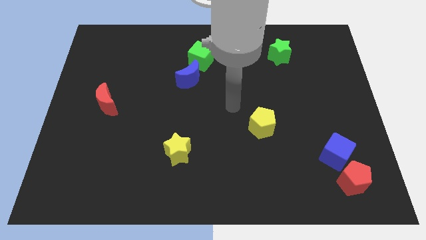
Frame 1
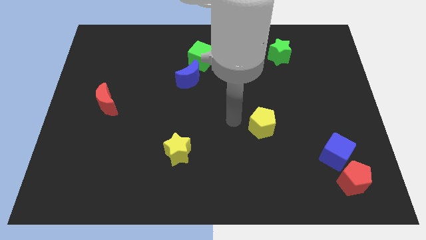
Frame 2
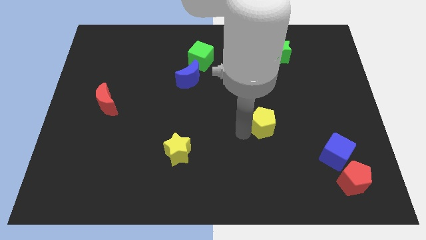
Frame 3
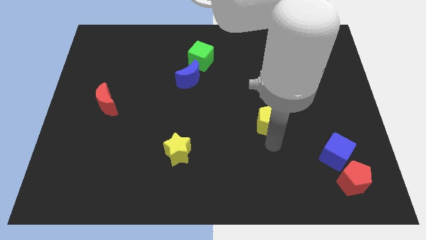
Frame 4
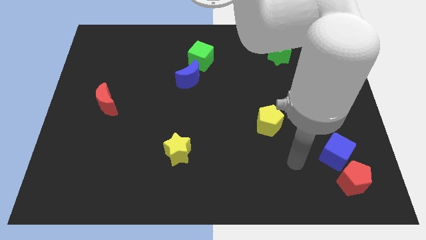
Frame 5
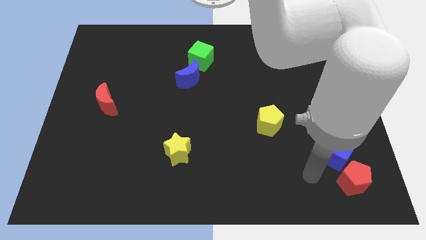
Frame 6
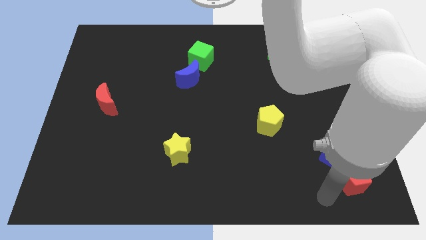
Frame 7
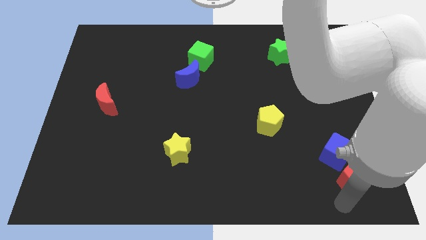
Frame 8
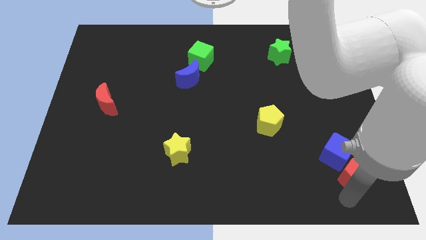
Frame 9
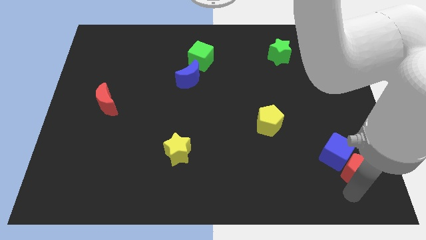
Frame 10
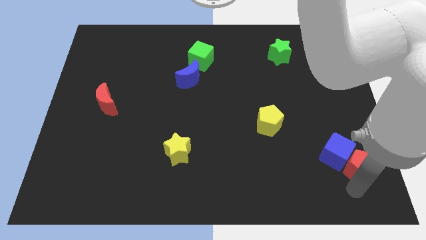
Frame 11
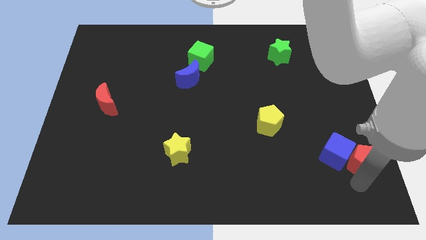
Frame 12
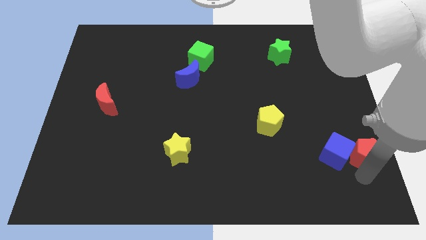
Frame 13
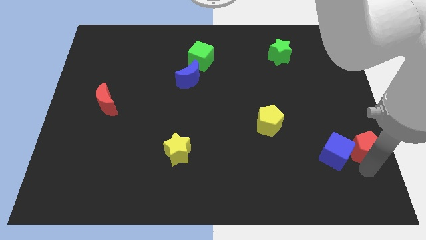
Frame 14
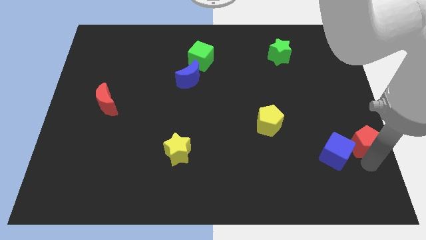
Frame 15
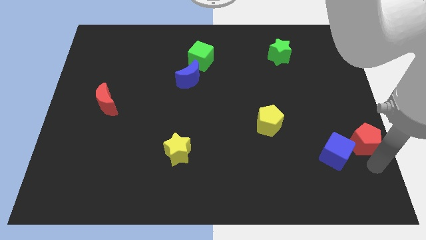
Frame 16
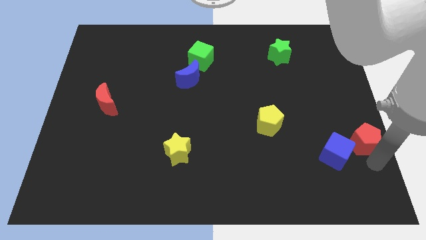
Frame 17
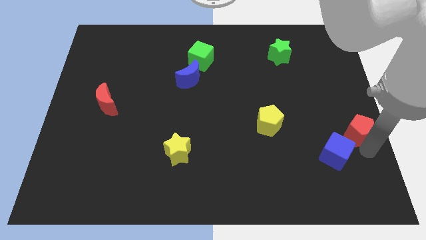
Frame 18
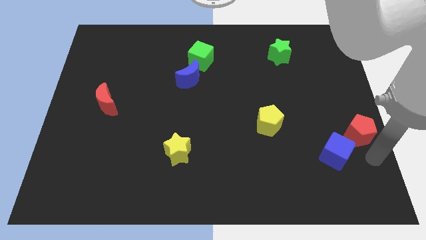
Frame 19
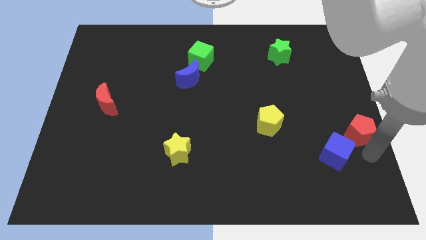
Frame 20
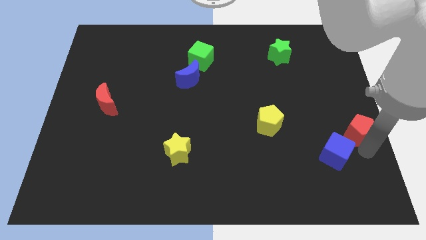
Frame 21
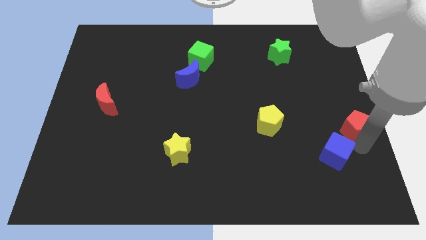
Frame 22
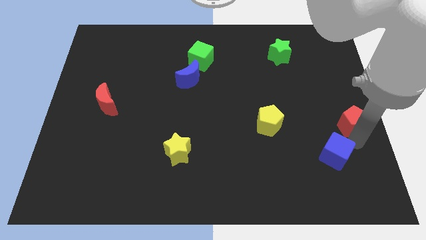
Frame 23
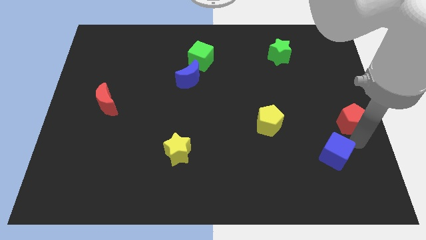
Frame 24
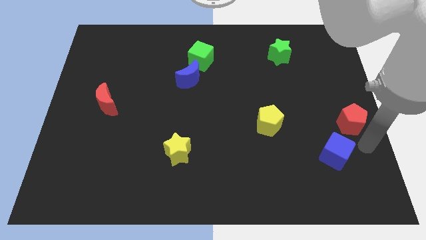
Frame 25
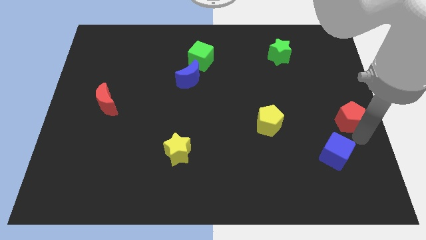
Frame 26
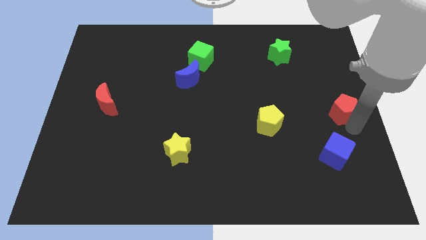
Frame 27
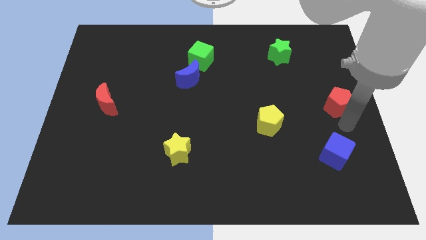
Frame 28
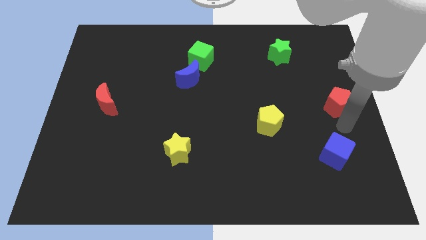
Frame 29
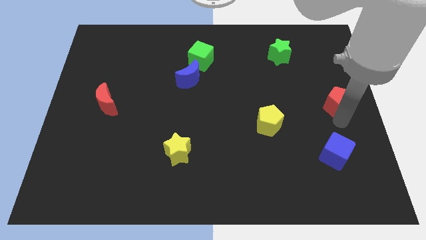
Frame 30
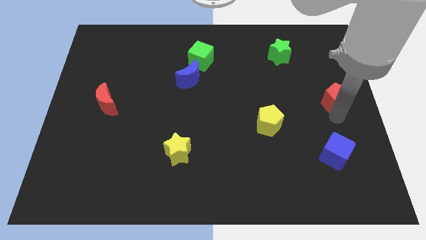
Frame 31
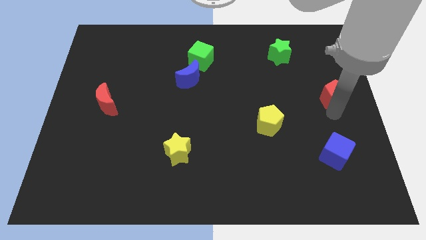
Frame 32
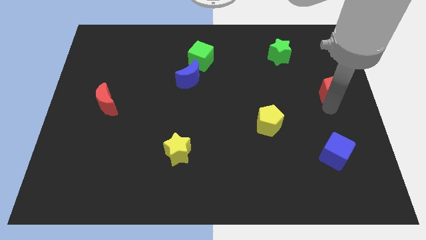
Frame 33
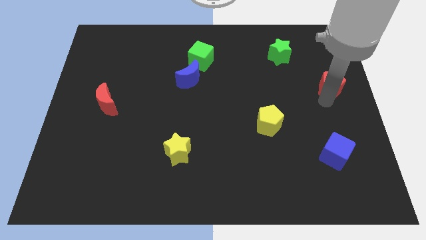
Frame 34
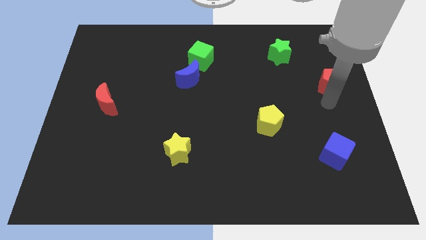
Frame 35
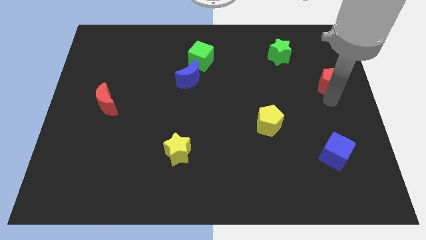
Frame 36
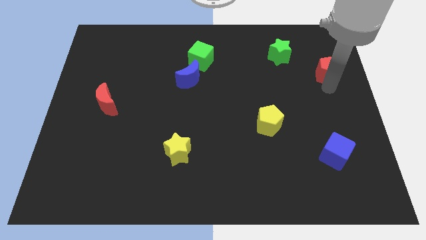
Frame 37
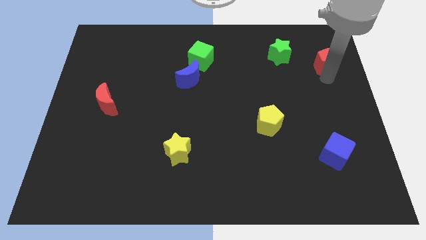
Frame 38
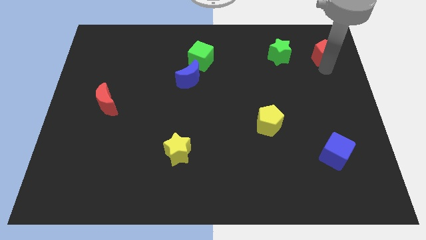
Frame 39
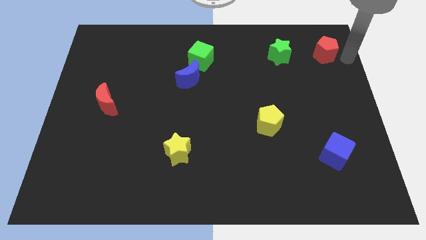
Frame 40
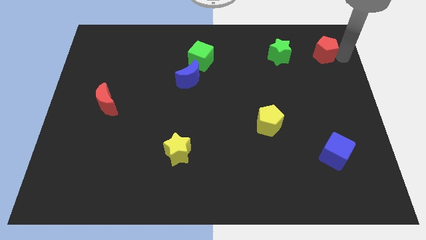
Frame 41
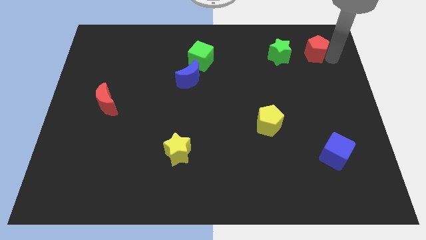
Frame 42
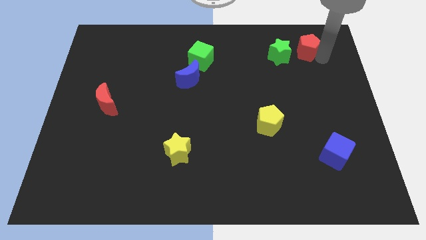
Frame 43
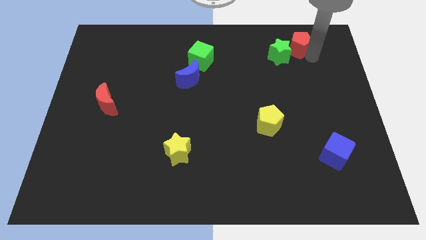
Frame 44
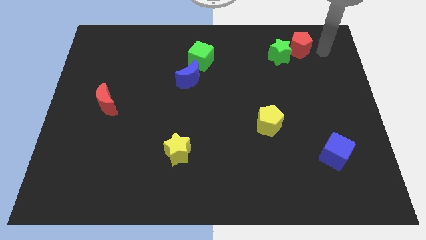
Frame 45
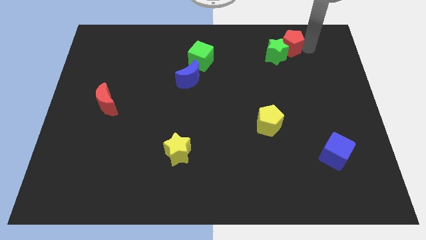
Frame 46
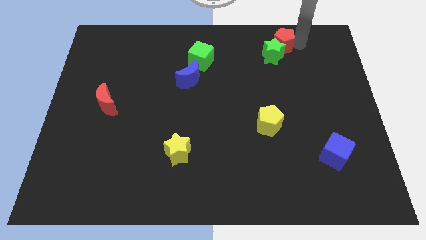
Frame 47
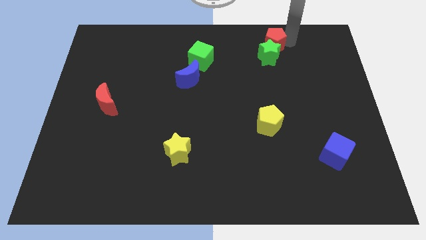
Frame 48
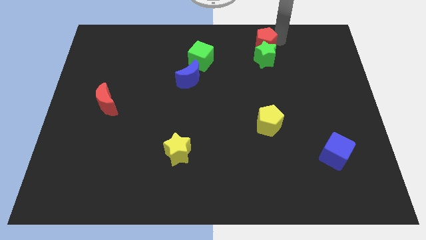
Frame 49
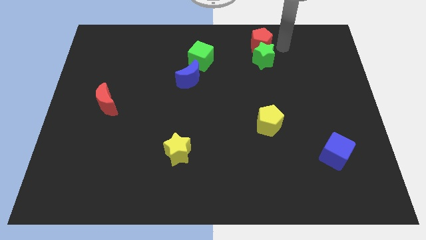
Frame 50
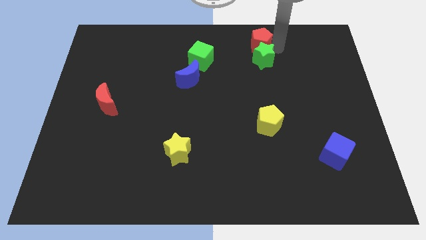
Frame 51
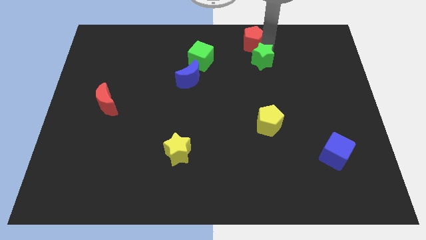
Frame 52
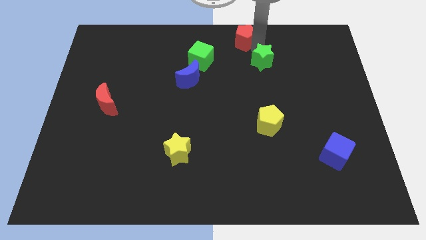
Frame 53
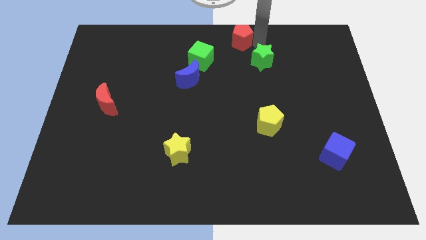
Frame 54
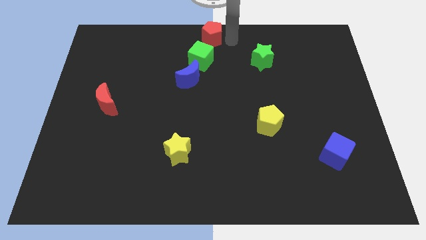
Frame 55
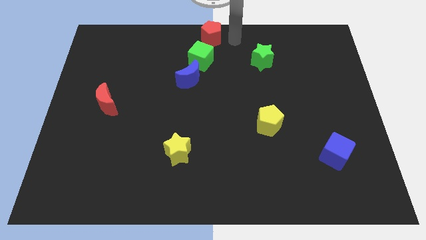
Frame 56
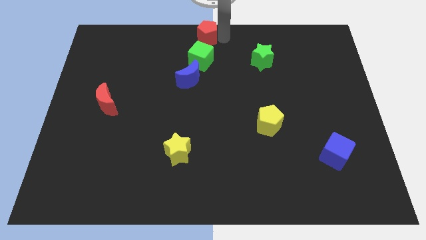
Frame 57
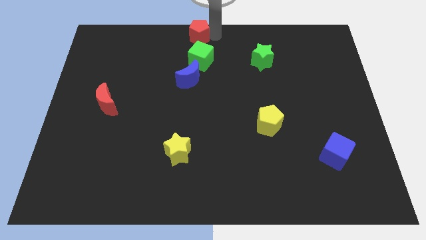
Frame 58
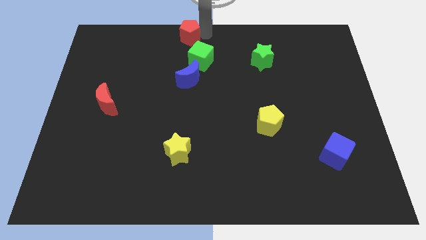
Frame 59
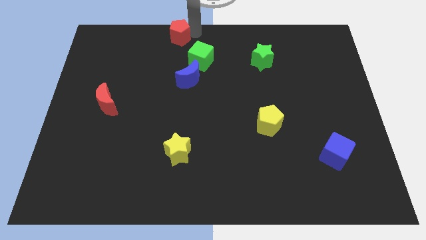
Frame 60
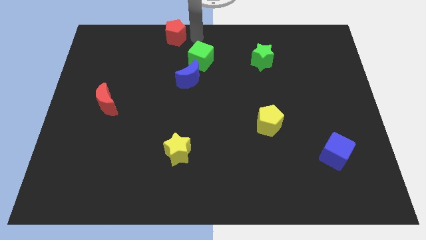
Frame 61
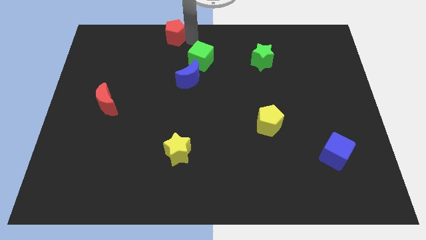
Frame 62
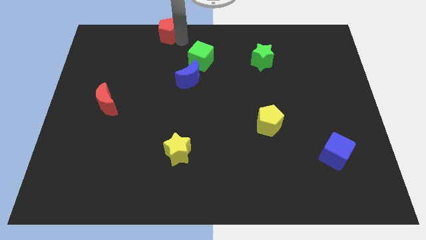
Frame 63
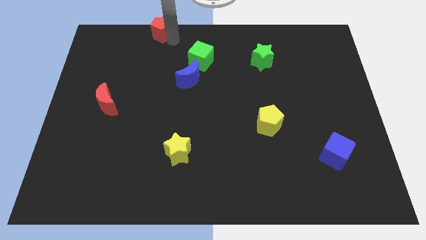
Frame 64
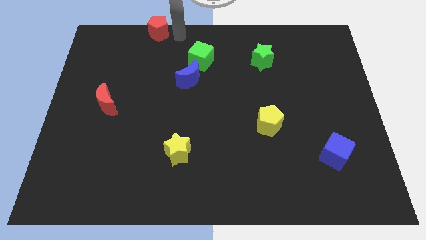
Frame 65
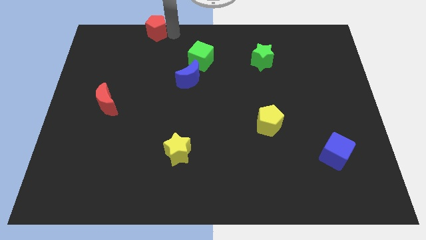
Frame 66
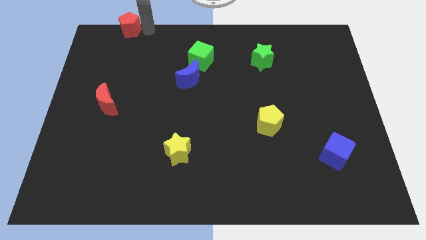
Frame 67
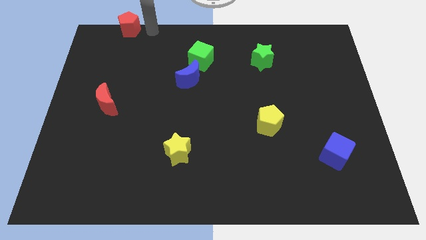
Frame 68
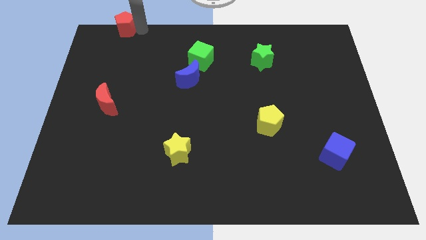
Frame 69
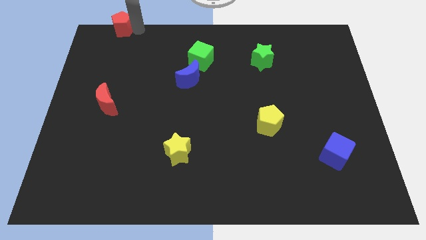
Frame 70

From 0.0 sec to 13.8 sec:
slide the red pentagon to the top left
